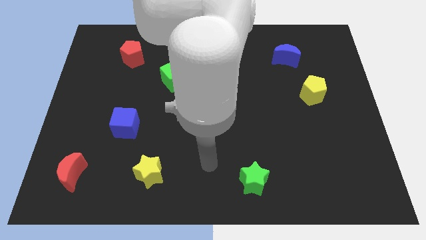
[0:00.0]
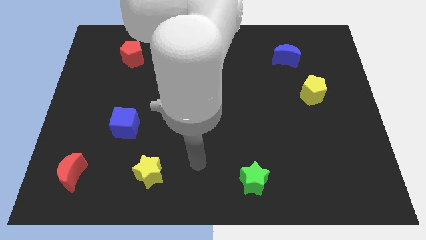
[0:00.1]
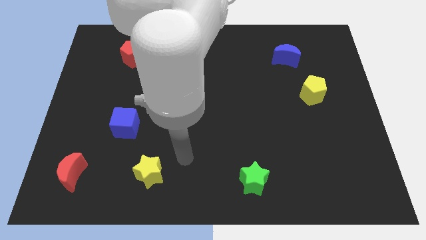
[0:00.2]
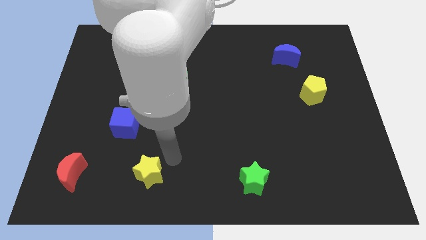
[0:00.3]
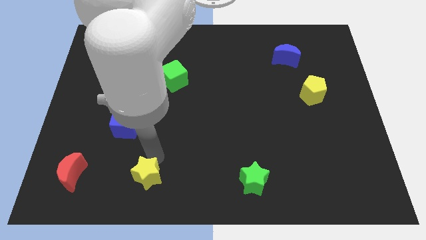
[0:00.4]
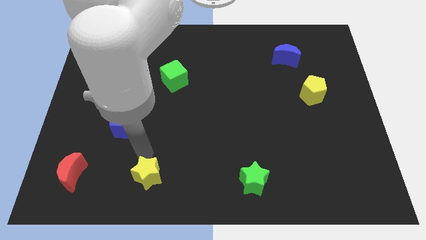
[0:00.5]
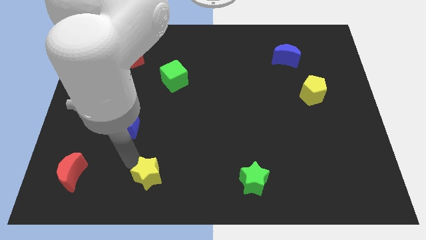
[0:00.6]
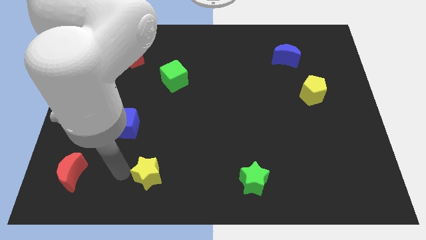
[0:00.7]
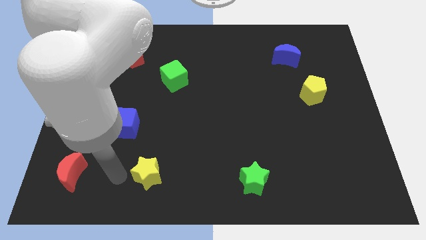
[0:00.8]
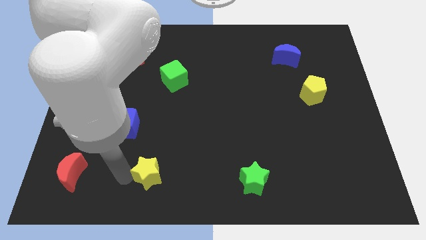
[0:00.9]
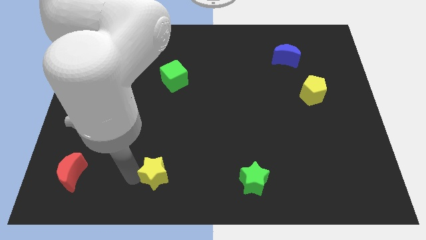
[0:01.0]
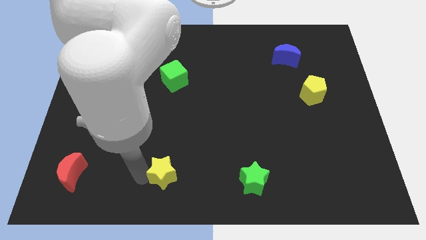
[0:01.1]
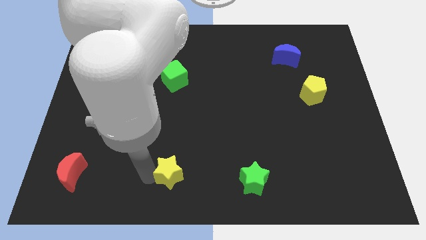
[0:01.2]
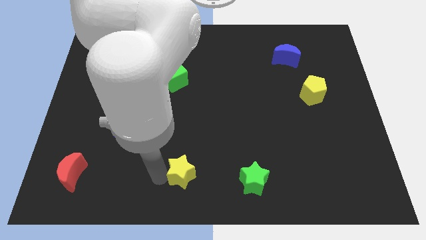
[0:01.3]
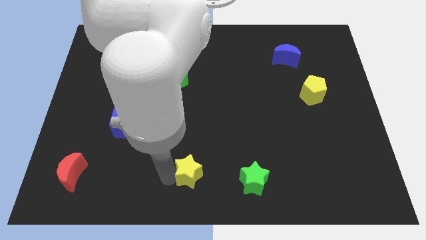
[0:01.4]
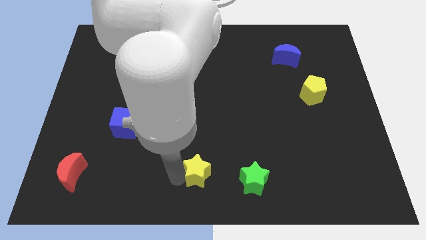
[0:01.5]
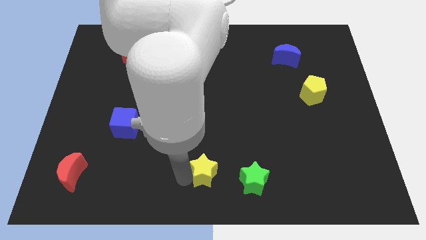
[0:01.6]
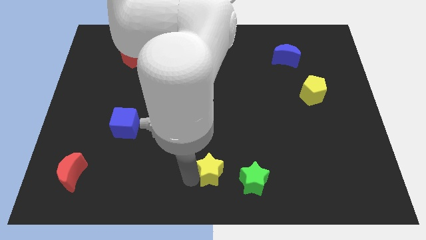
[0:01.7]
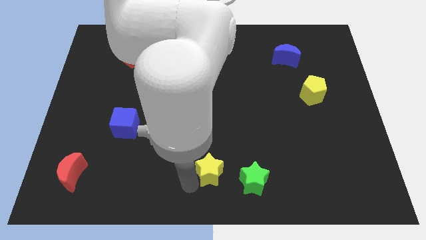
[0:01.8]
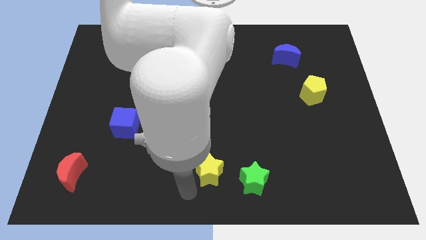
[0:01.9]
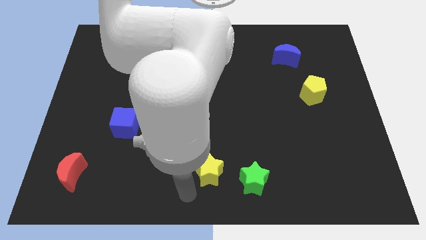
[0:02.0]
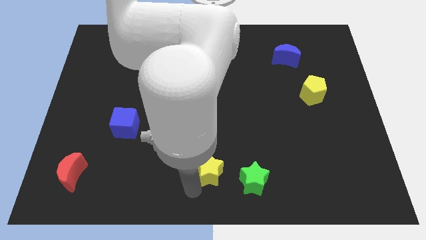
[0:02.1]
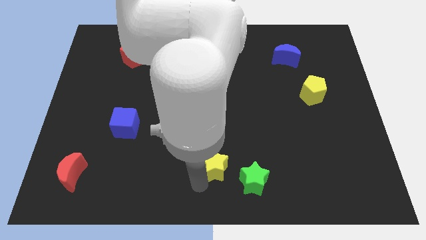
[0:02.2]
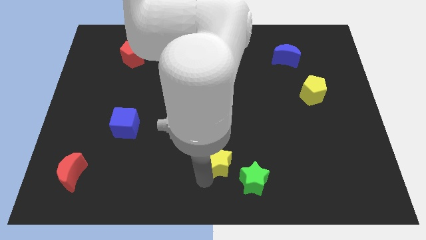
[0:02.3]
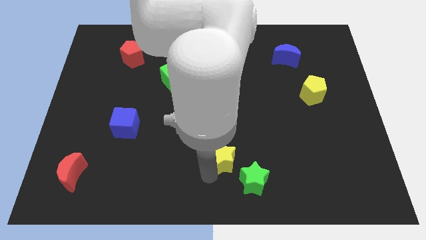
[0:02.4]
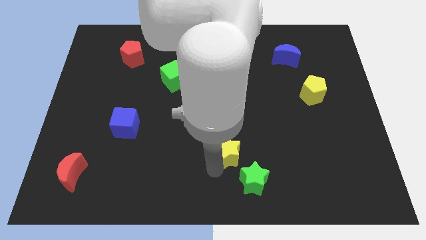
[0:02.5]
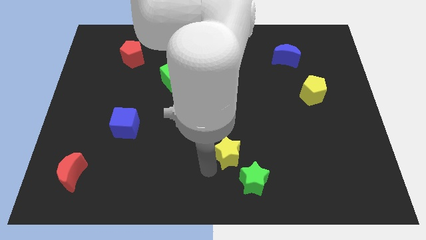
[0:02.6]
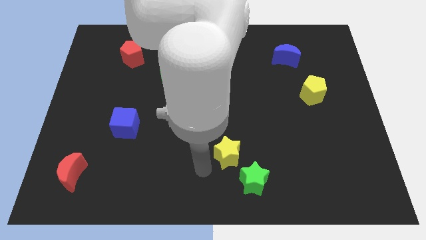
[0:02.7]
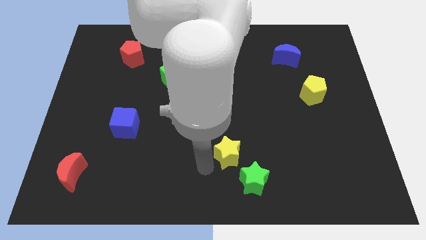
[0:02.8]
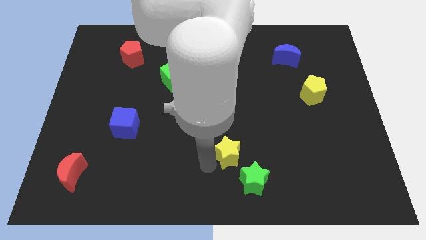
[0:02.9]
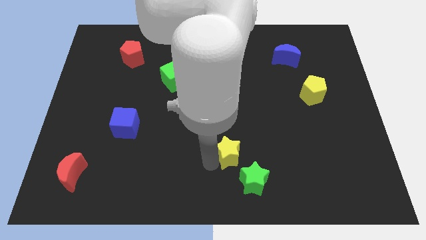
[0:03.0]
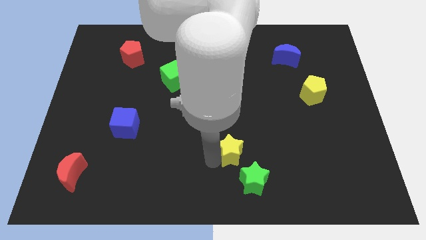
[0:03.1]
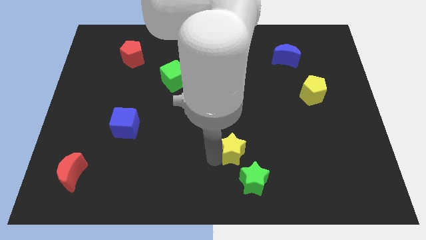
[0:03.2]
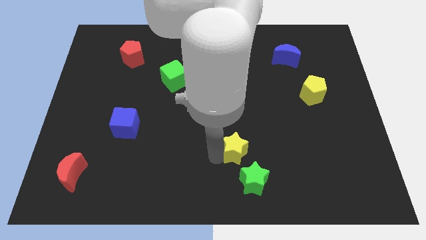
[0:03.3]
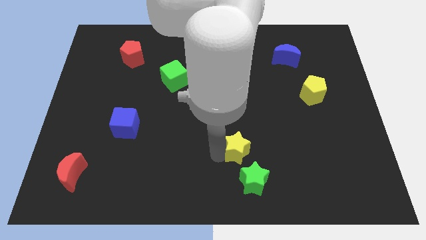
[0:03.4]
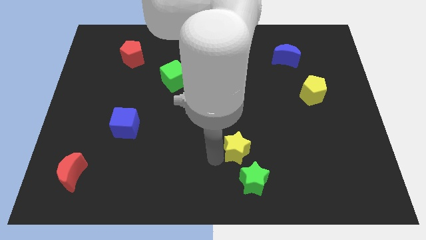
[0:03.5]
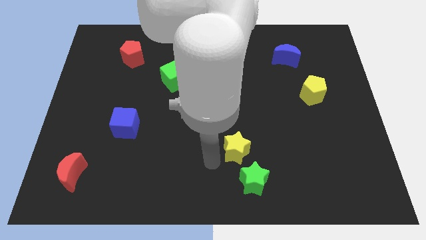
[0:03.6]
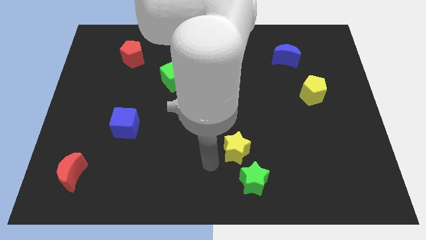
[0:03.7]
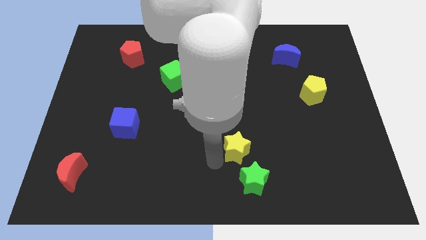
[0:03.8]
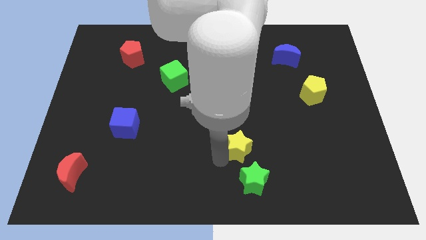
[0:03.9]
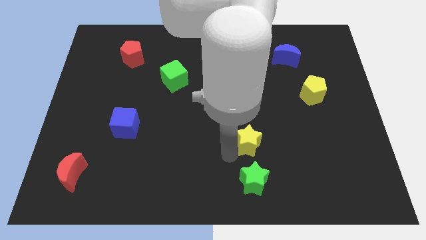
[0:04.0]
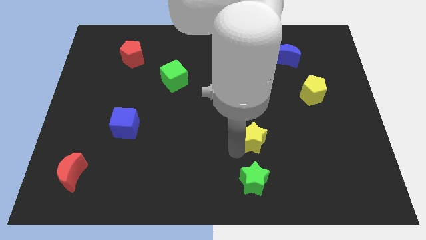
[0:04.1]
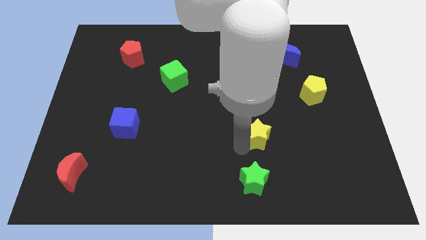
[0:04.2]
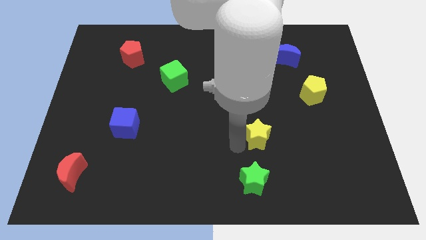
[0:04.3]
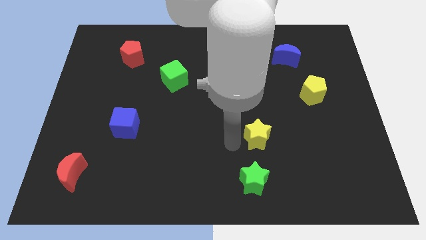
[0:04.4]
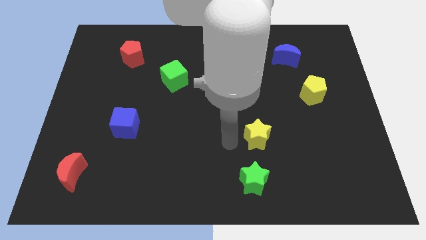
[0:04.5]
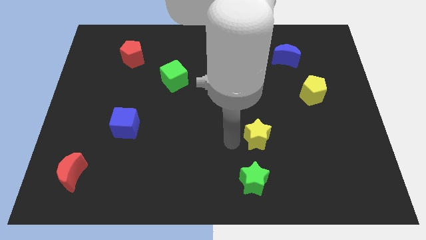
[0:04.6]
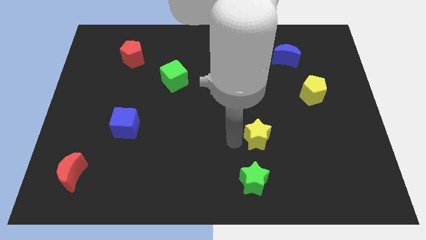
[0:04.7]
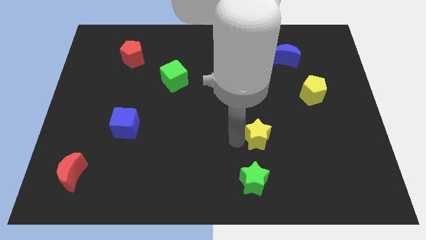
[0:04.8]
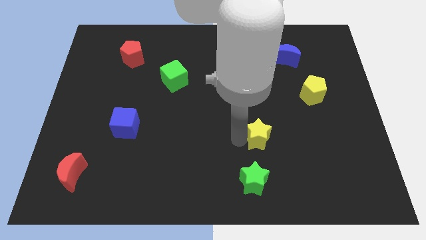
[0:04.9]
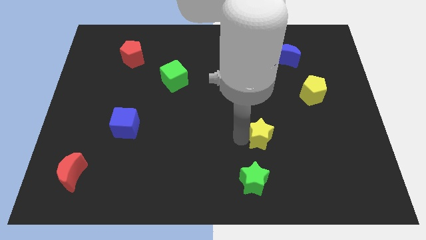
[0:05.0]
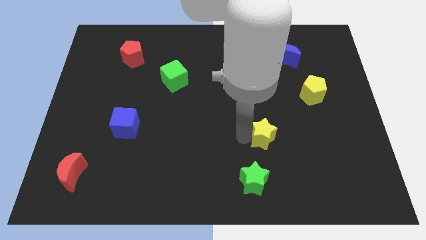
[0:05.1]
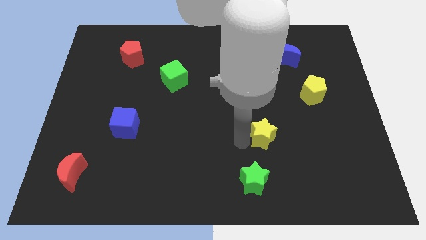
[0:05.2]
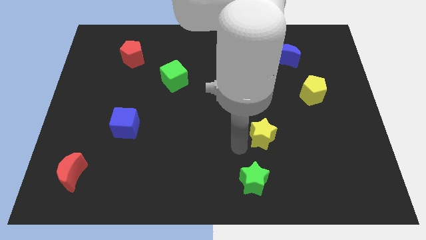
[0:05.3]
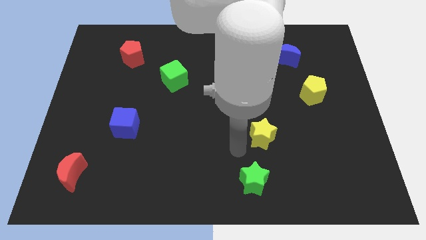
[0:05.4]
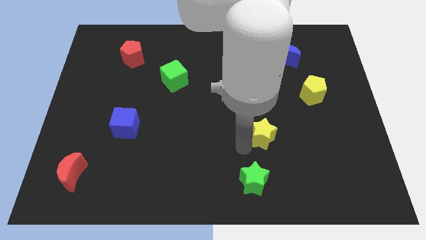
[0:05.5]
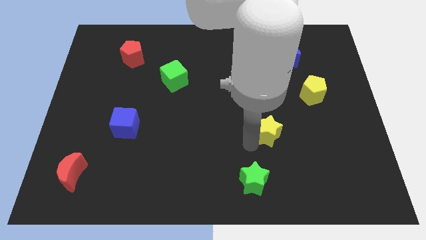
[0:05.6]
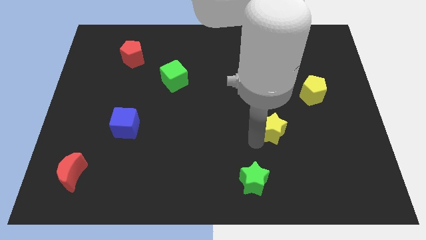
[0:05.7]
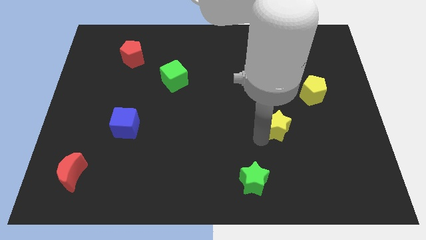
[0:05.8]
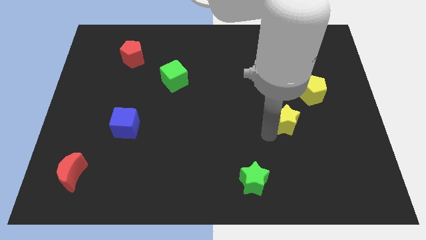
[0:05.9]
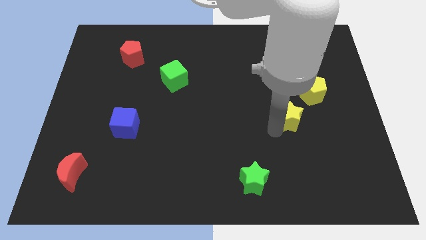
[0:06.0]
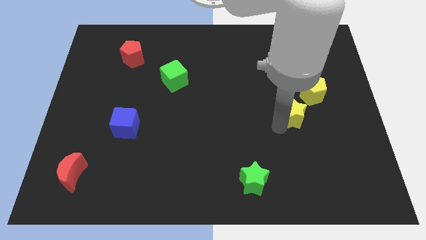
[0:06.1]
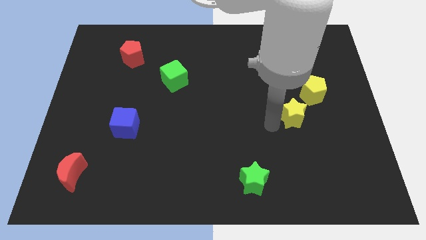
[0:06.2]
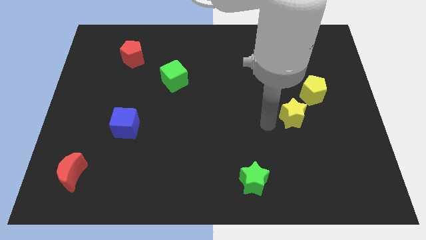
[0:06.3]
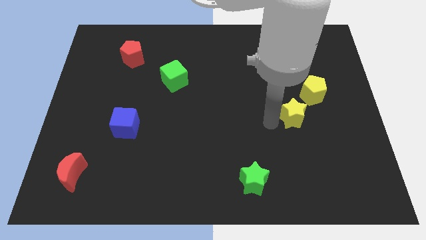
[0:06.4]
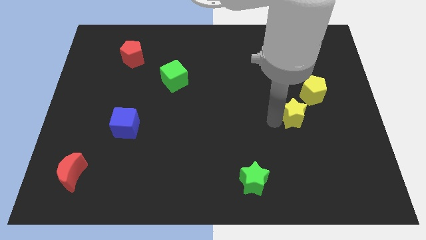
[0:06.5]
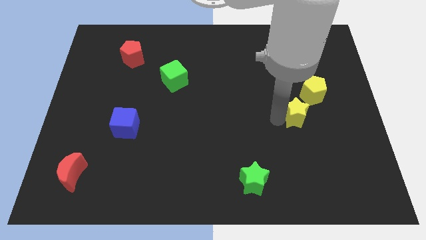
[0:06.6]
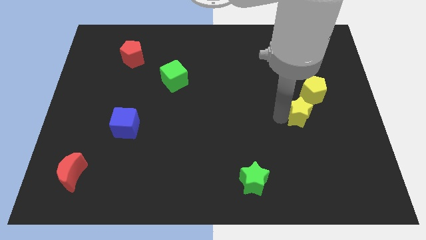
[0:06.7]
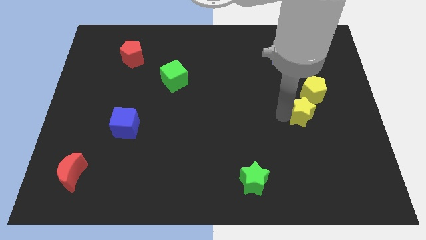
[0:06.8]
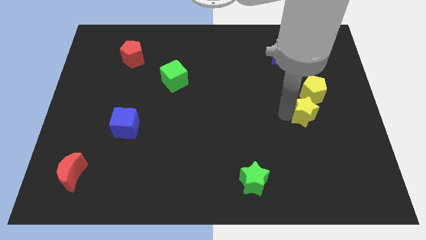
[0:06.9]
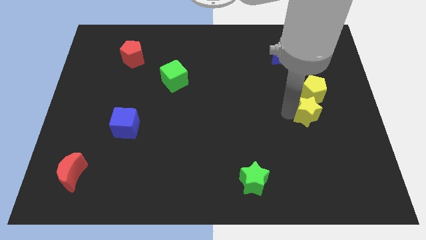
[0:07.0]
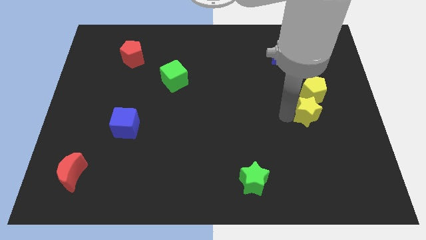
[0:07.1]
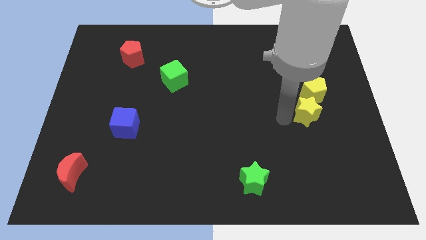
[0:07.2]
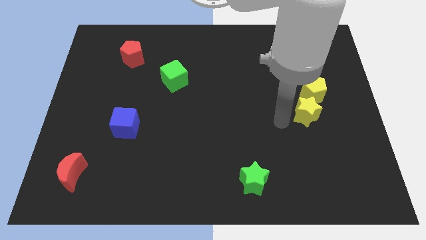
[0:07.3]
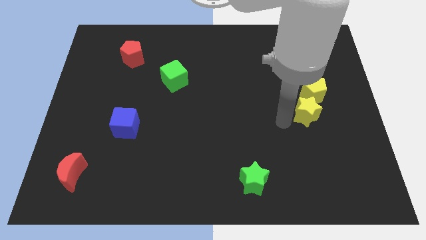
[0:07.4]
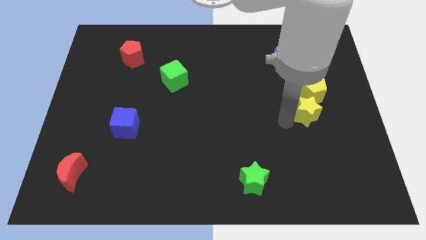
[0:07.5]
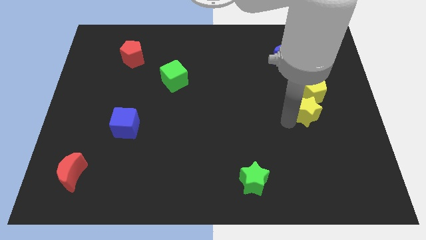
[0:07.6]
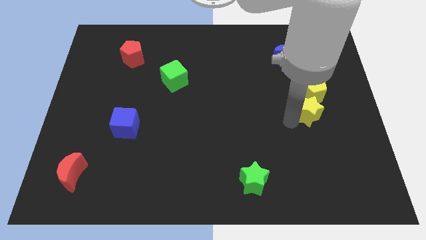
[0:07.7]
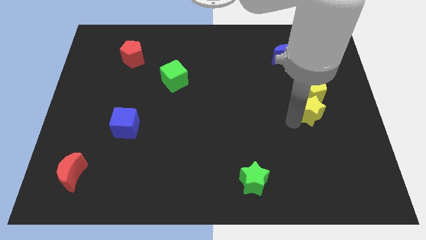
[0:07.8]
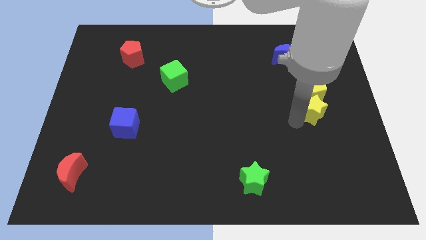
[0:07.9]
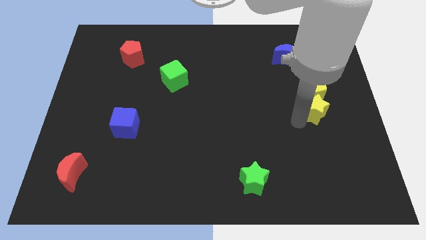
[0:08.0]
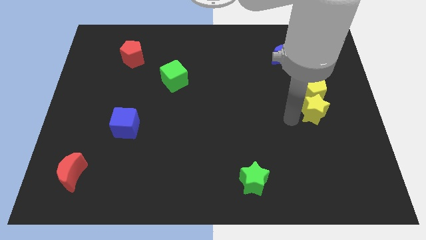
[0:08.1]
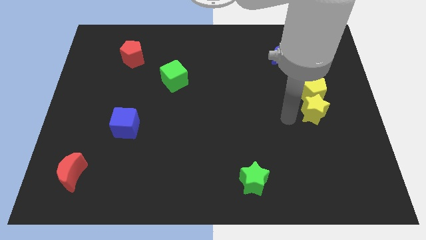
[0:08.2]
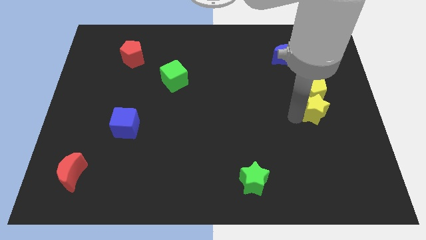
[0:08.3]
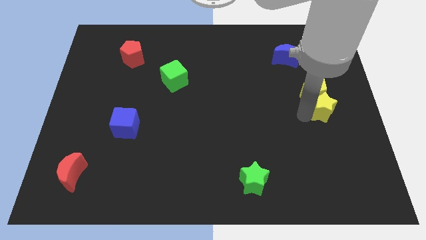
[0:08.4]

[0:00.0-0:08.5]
slide the yellow star to the center right
